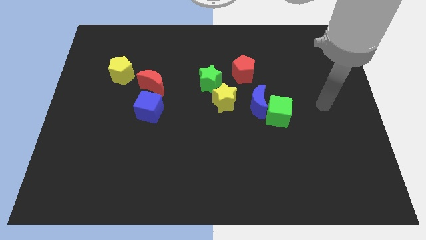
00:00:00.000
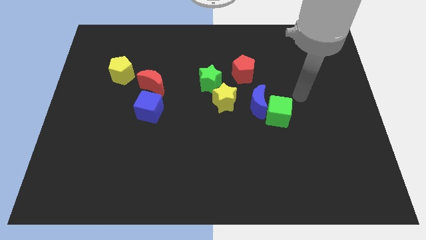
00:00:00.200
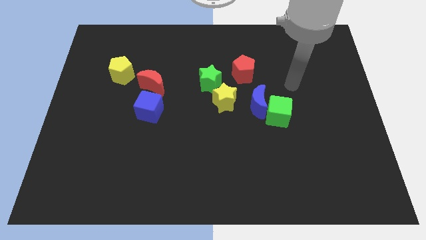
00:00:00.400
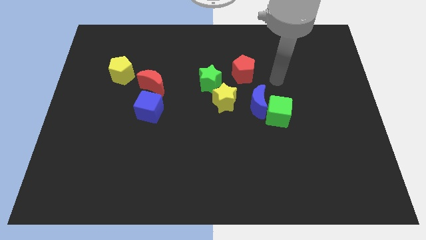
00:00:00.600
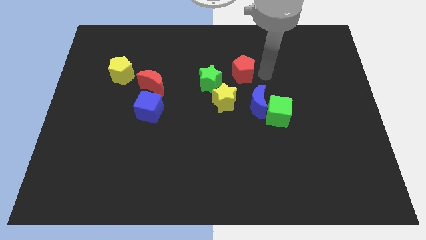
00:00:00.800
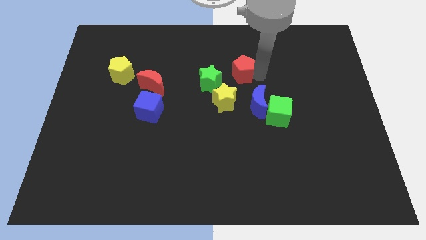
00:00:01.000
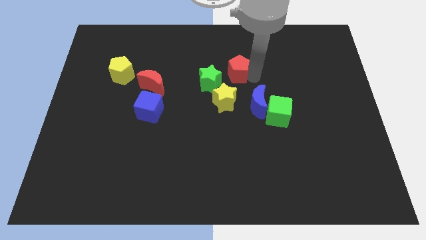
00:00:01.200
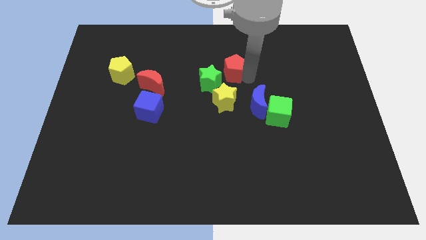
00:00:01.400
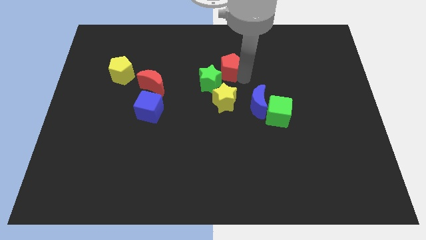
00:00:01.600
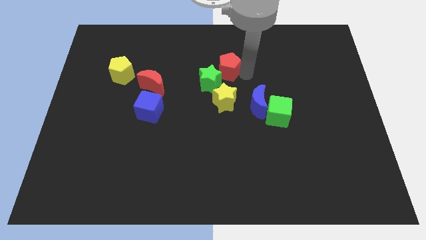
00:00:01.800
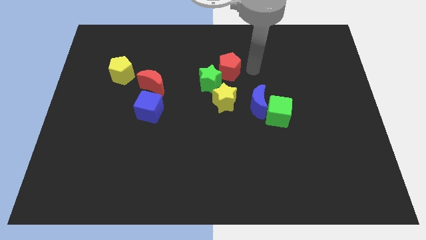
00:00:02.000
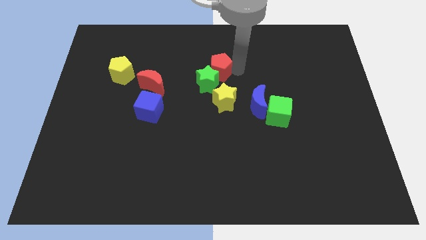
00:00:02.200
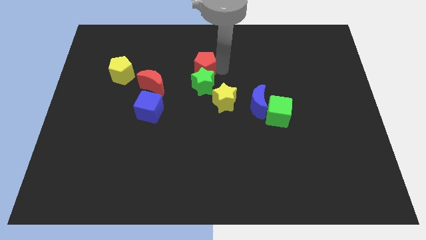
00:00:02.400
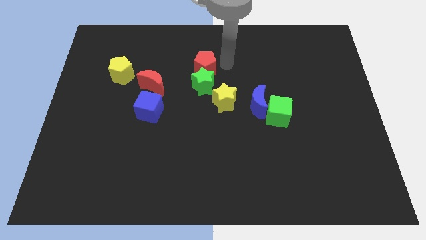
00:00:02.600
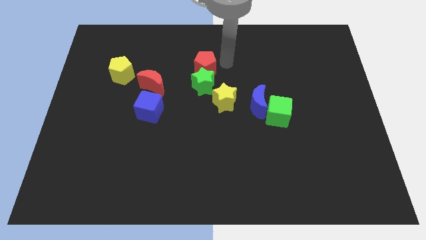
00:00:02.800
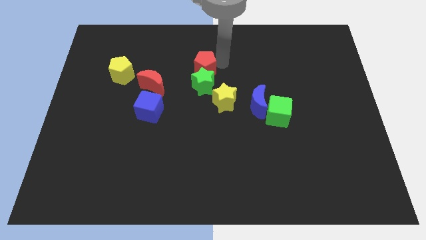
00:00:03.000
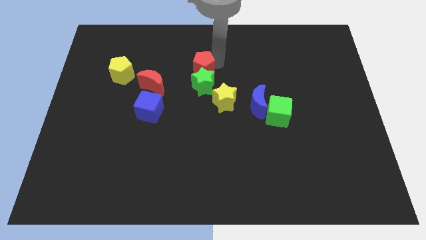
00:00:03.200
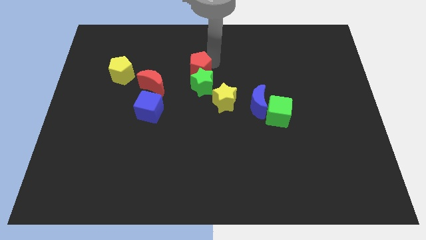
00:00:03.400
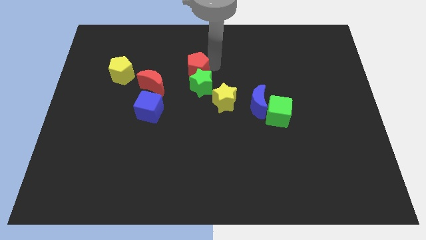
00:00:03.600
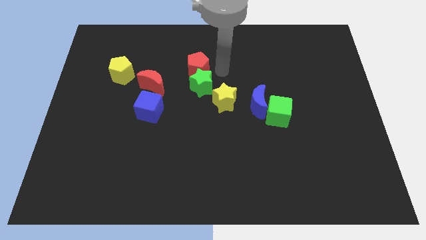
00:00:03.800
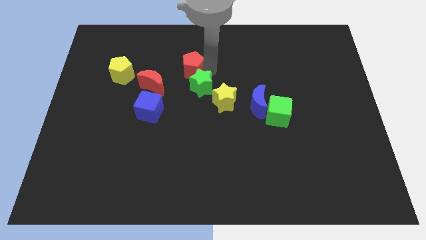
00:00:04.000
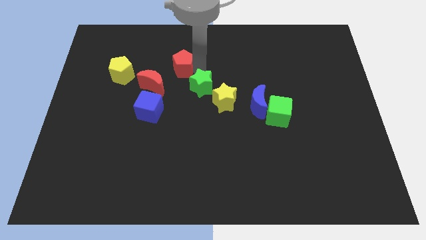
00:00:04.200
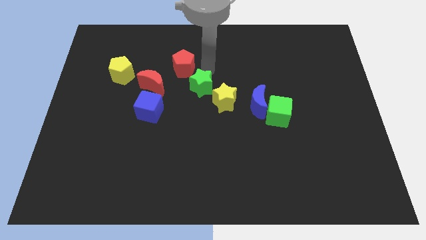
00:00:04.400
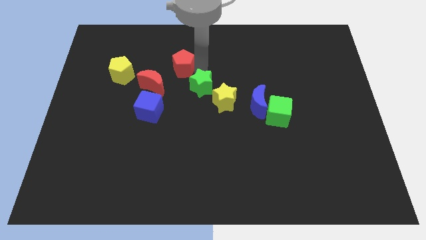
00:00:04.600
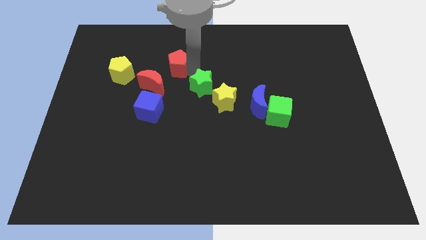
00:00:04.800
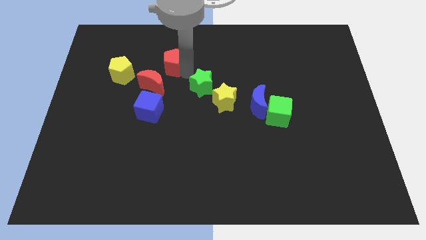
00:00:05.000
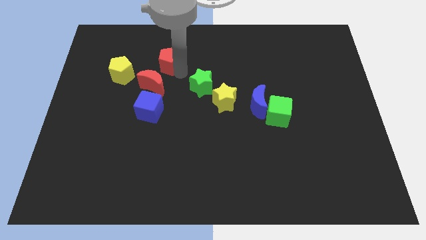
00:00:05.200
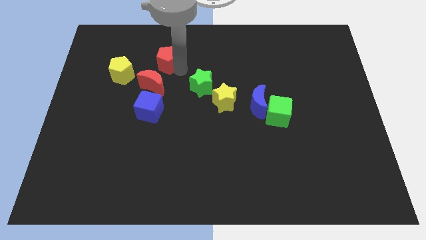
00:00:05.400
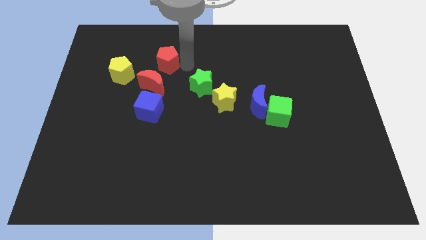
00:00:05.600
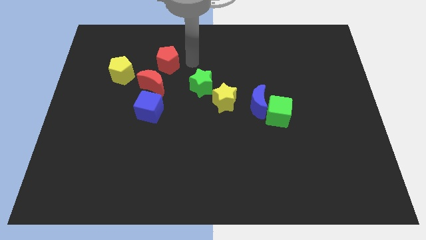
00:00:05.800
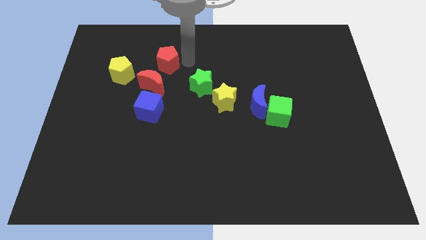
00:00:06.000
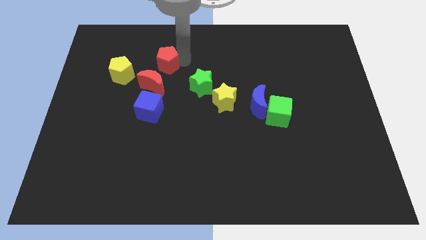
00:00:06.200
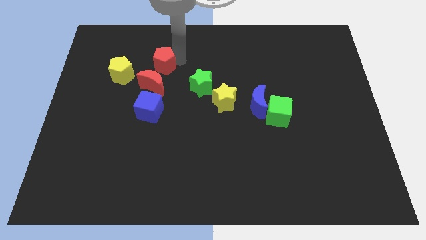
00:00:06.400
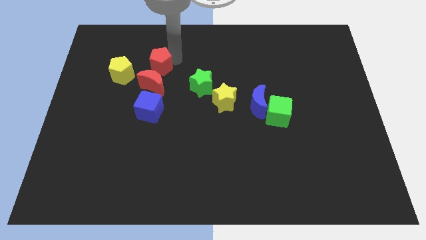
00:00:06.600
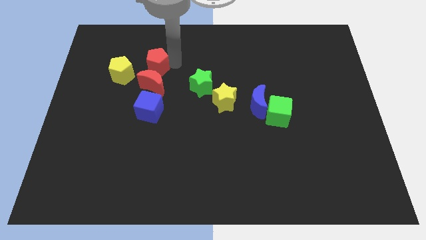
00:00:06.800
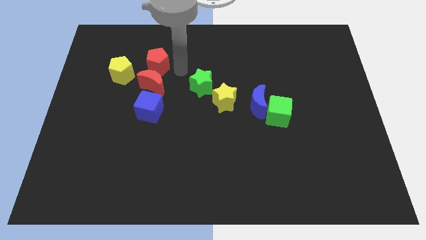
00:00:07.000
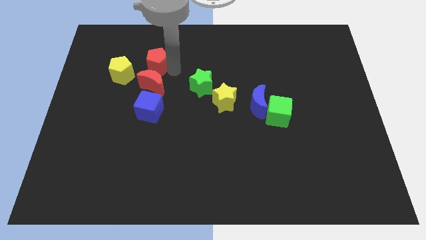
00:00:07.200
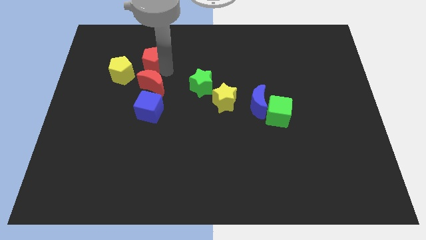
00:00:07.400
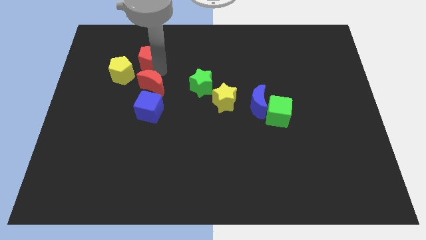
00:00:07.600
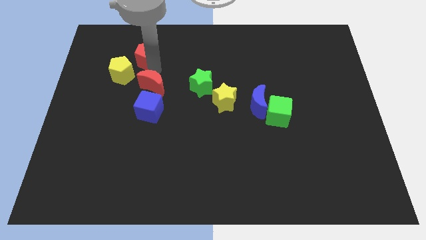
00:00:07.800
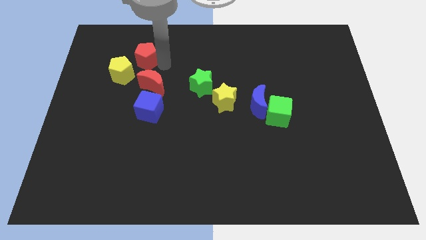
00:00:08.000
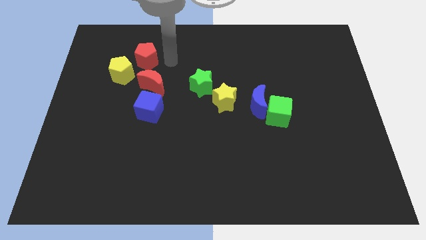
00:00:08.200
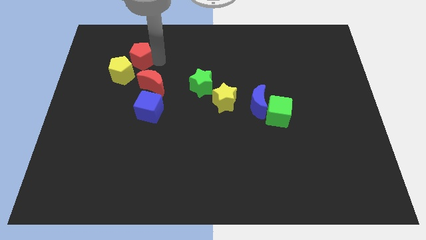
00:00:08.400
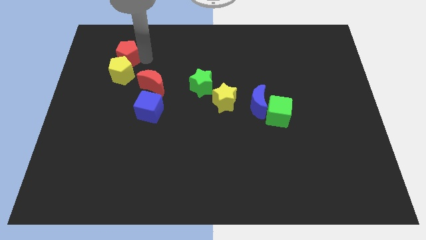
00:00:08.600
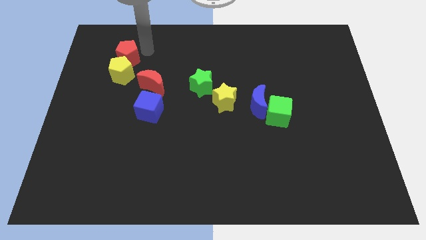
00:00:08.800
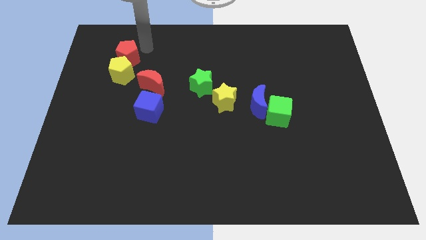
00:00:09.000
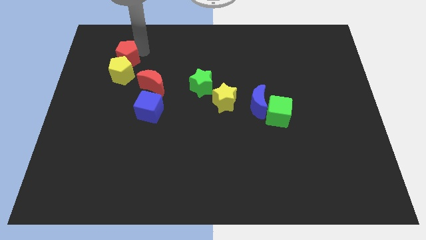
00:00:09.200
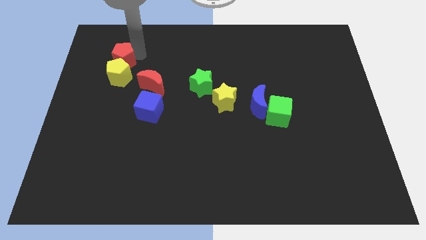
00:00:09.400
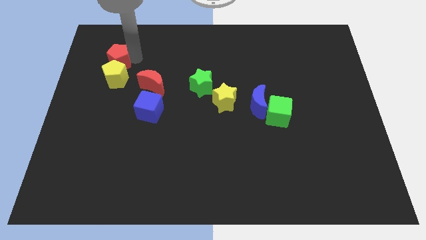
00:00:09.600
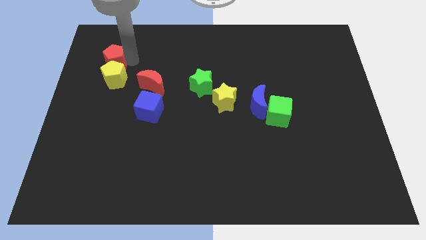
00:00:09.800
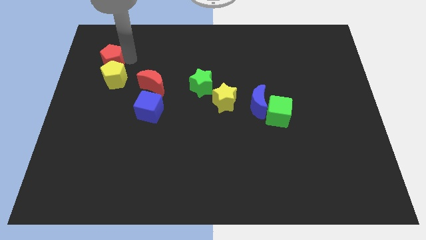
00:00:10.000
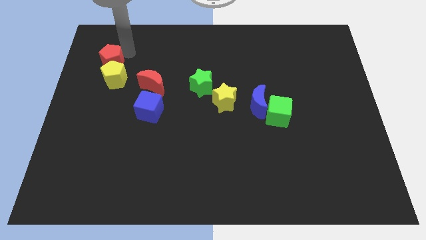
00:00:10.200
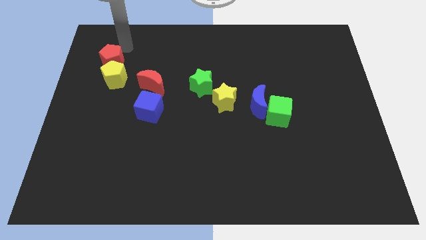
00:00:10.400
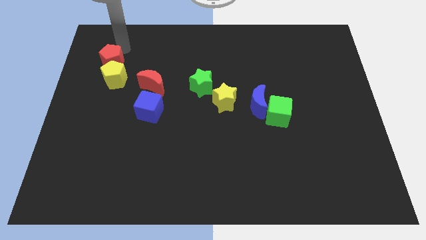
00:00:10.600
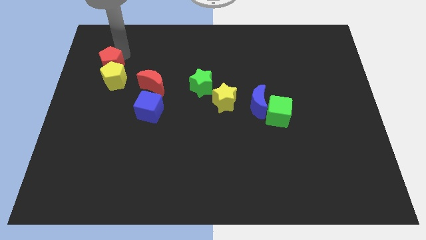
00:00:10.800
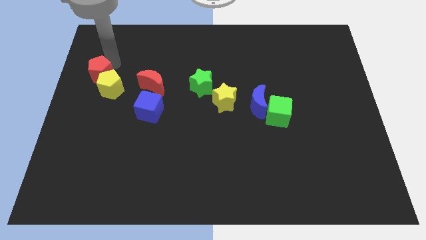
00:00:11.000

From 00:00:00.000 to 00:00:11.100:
put the red pentagon to the left side

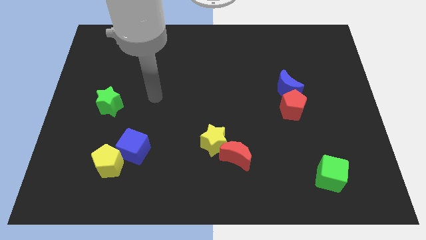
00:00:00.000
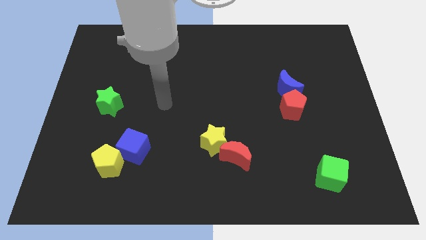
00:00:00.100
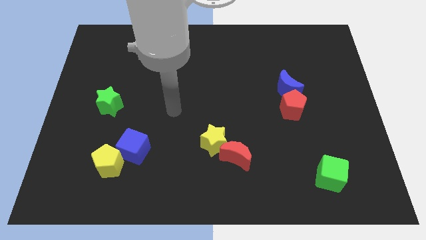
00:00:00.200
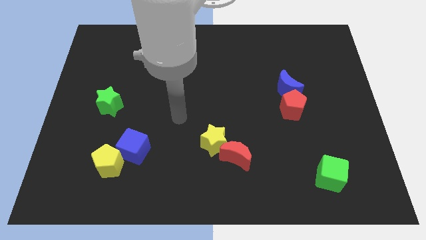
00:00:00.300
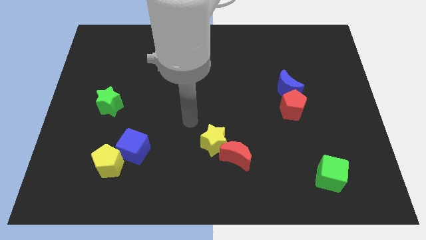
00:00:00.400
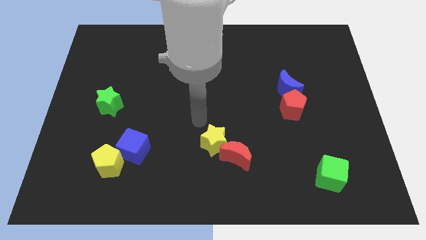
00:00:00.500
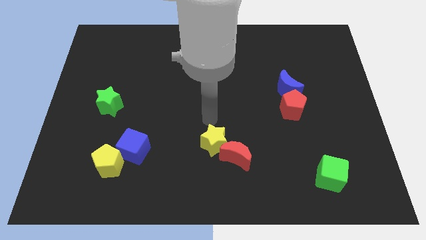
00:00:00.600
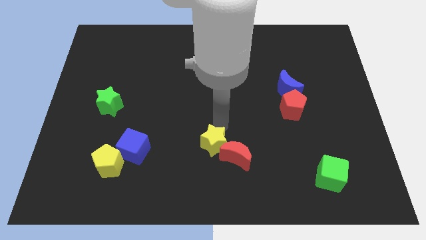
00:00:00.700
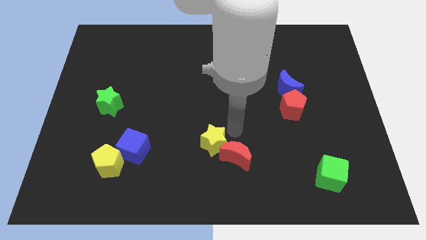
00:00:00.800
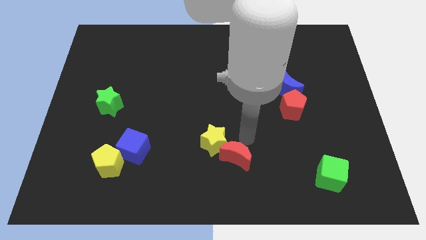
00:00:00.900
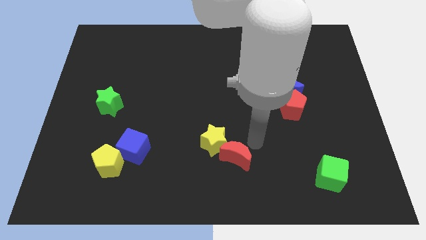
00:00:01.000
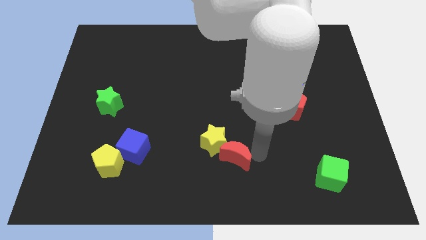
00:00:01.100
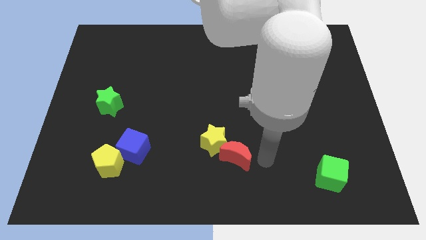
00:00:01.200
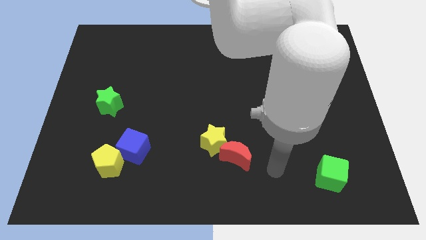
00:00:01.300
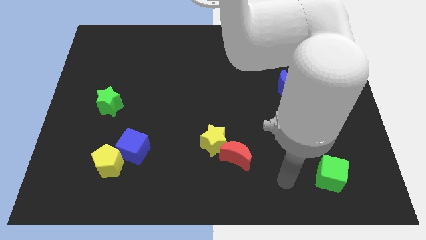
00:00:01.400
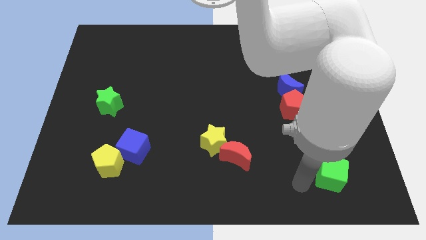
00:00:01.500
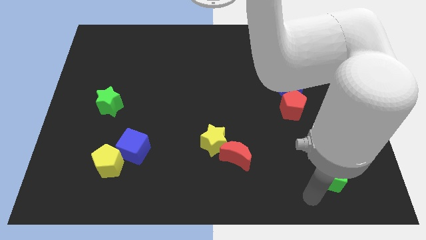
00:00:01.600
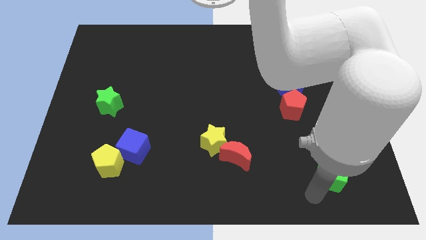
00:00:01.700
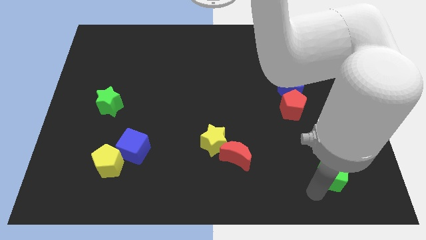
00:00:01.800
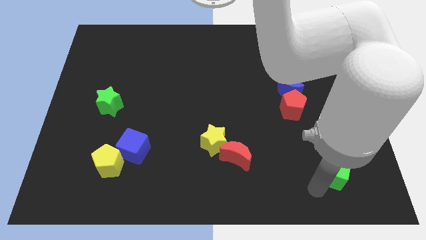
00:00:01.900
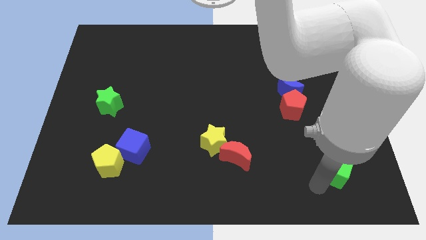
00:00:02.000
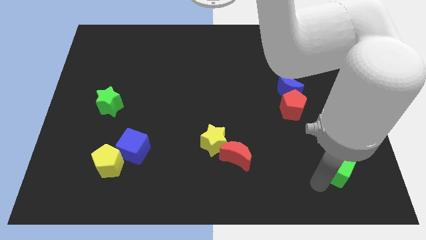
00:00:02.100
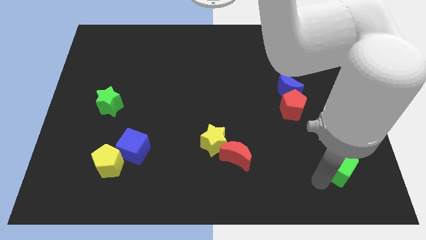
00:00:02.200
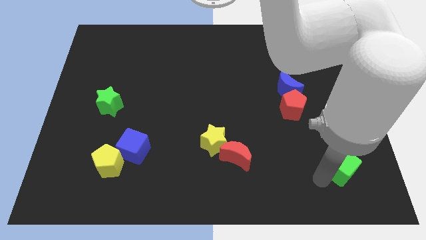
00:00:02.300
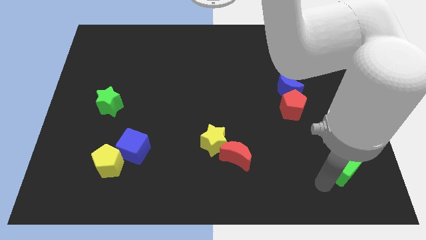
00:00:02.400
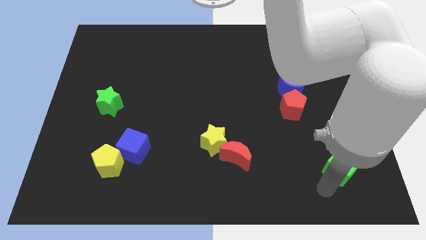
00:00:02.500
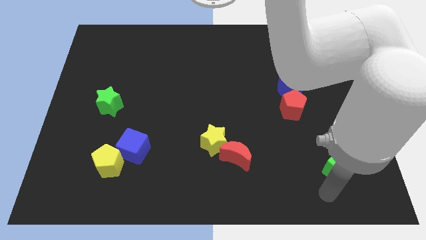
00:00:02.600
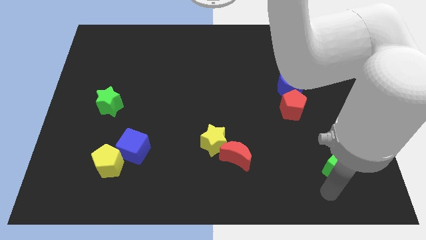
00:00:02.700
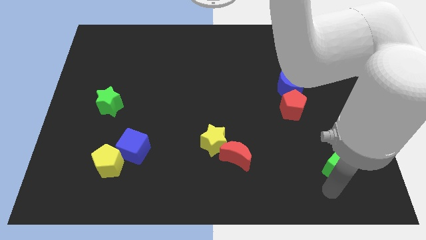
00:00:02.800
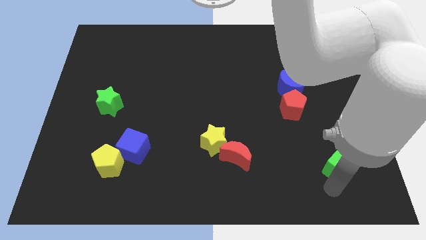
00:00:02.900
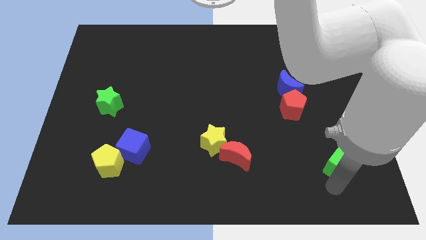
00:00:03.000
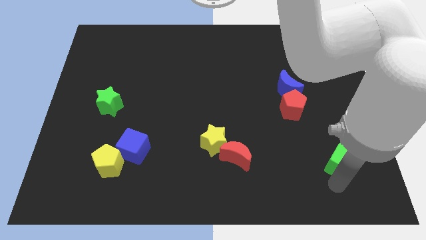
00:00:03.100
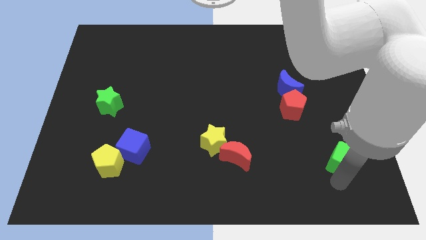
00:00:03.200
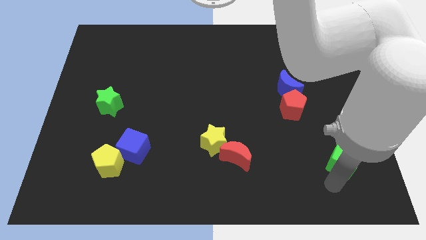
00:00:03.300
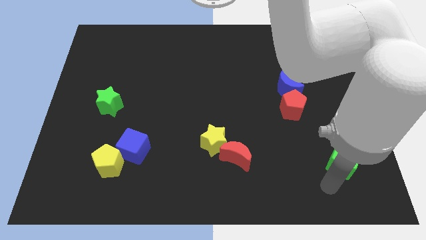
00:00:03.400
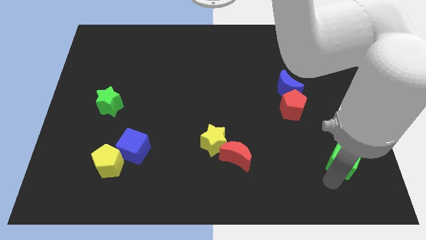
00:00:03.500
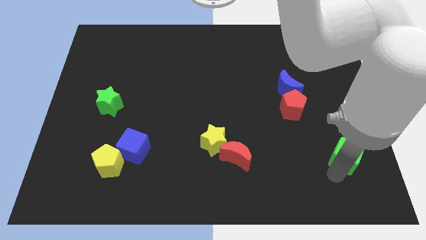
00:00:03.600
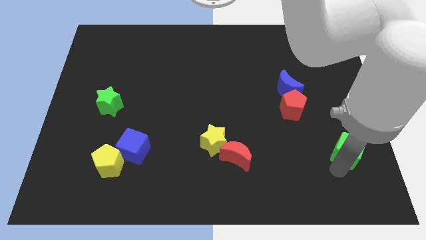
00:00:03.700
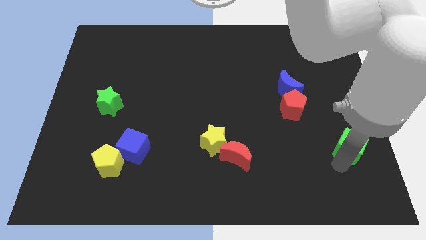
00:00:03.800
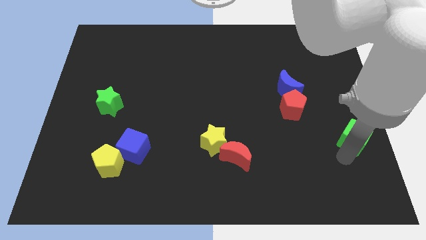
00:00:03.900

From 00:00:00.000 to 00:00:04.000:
move the green cube to the right side
